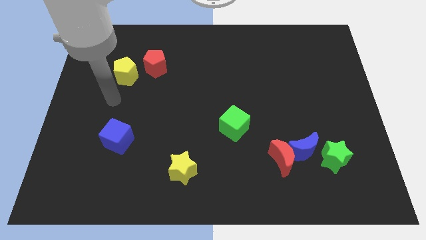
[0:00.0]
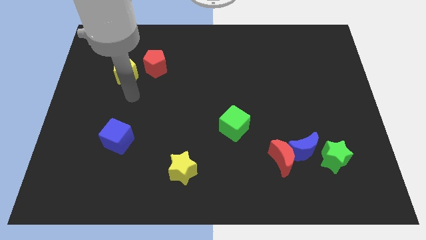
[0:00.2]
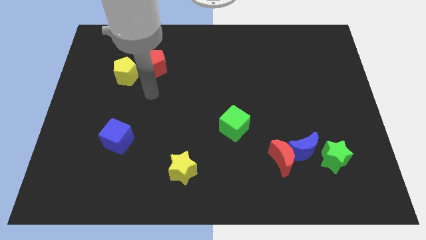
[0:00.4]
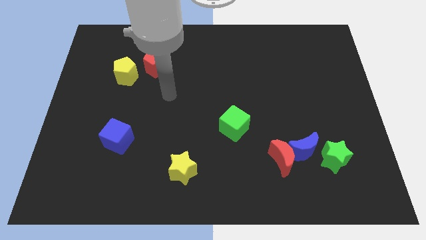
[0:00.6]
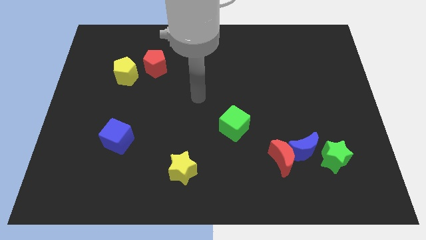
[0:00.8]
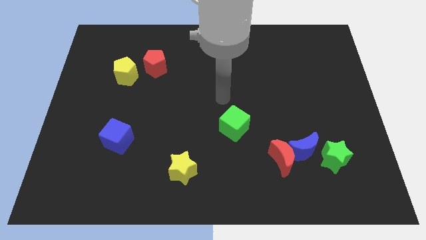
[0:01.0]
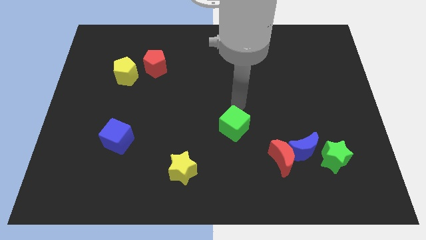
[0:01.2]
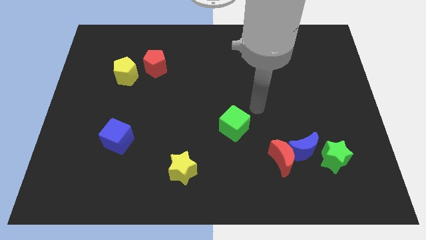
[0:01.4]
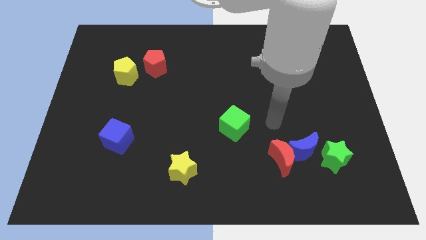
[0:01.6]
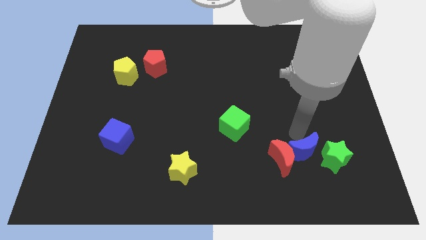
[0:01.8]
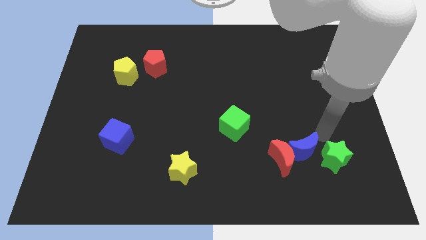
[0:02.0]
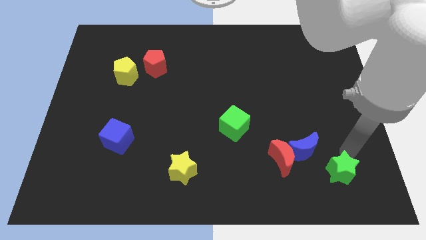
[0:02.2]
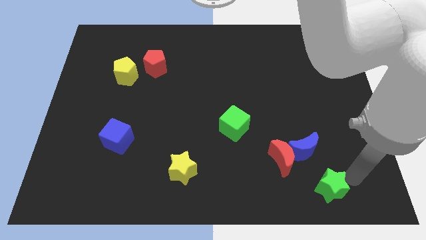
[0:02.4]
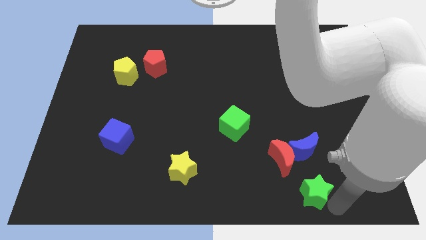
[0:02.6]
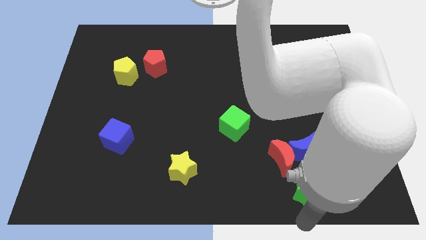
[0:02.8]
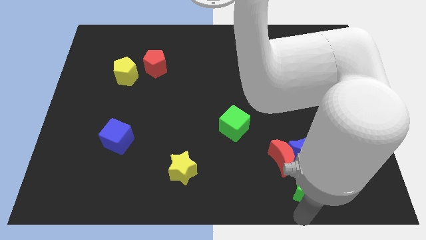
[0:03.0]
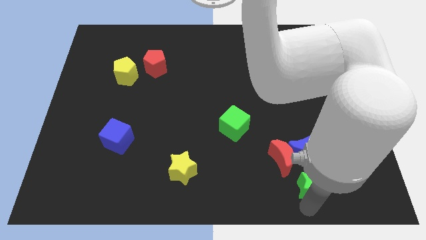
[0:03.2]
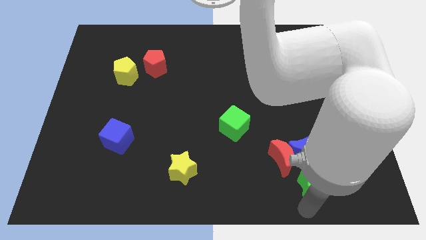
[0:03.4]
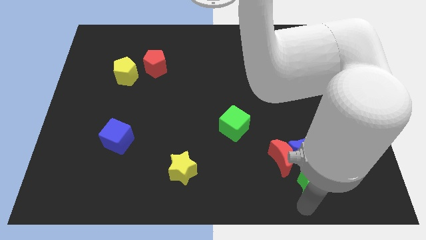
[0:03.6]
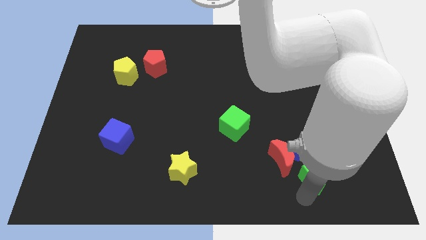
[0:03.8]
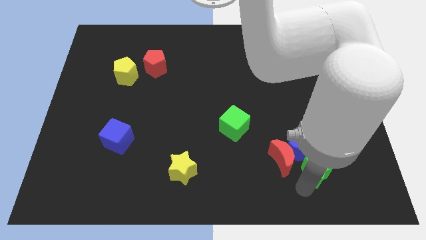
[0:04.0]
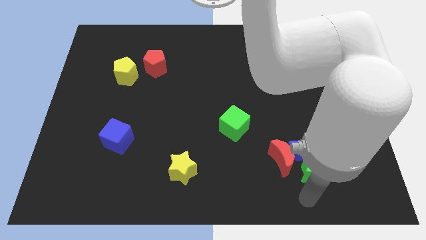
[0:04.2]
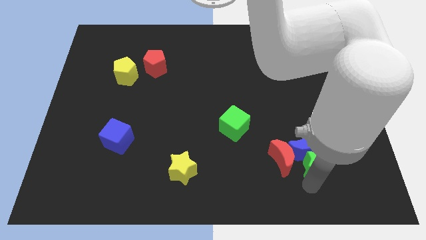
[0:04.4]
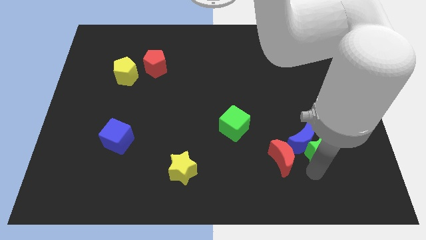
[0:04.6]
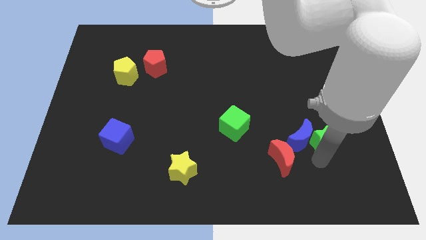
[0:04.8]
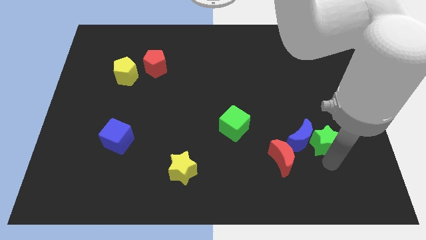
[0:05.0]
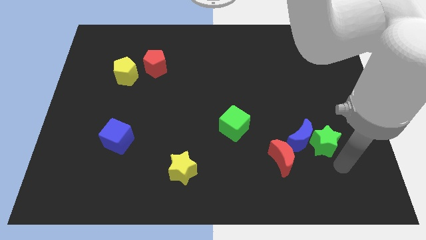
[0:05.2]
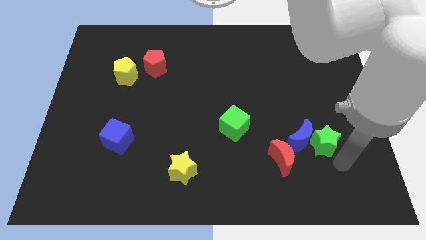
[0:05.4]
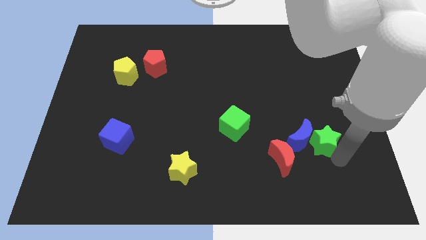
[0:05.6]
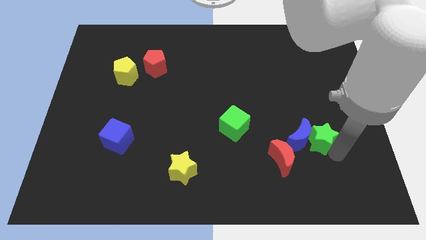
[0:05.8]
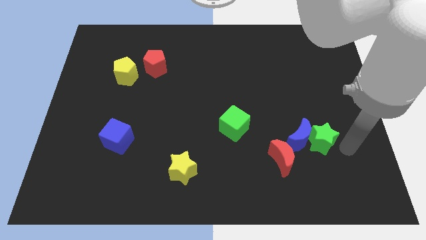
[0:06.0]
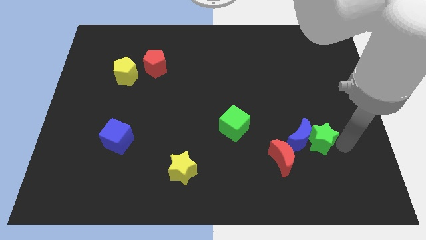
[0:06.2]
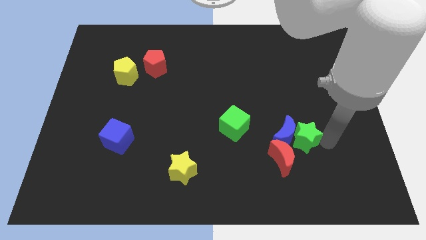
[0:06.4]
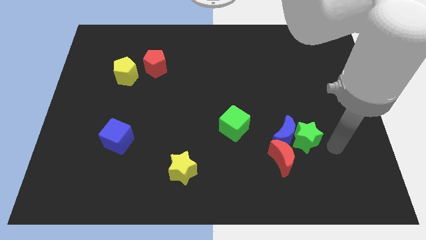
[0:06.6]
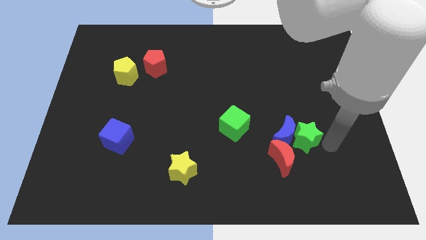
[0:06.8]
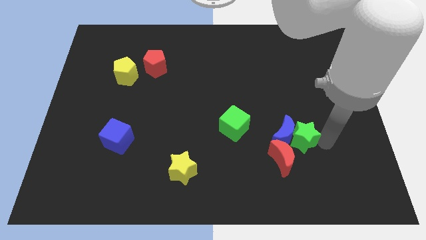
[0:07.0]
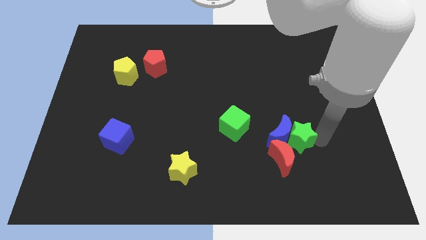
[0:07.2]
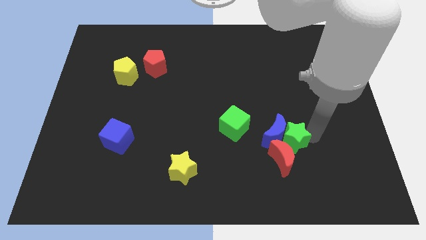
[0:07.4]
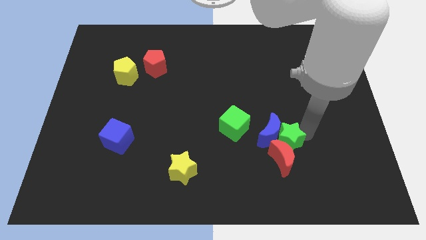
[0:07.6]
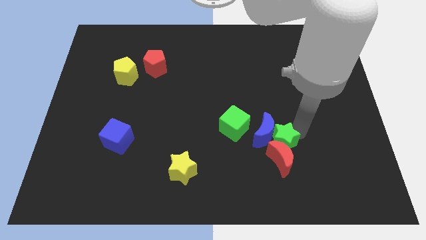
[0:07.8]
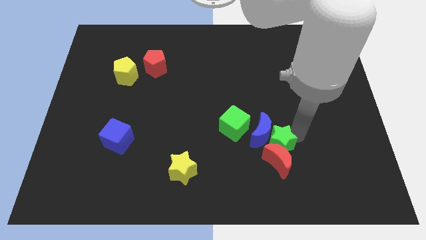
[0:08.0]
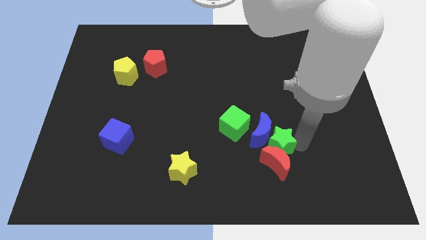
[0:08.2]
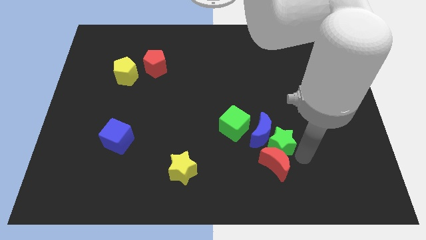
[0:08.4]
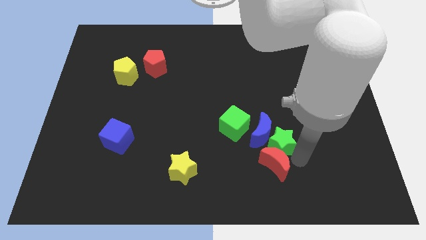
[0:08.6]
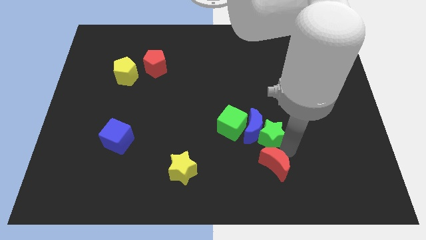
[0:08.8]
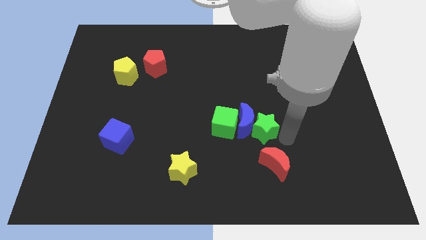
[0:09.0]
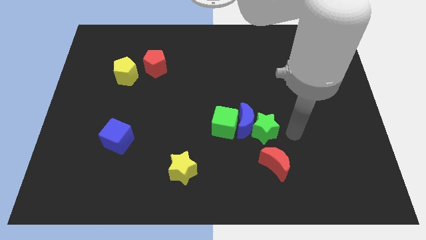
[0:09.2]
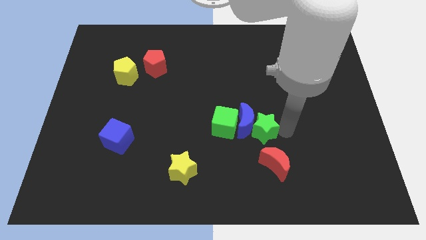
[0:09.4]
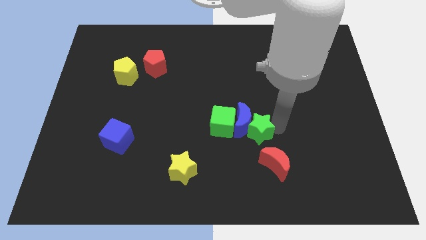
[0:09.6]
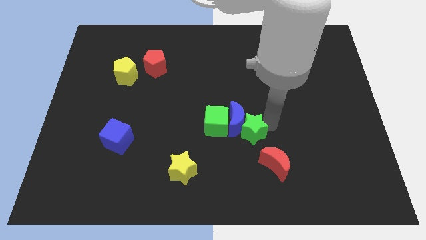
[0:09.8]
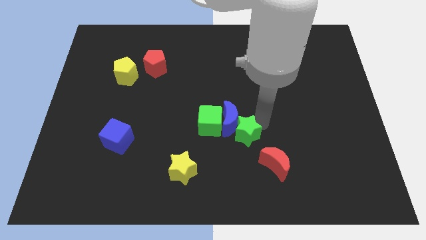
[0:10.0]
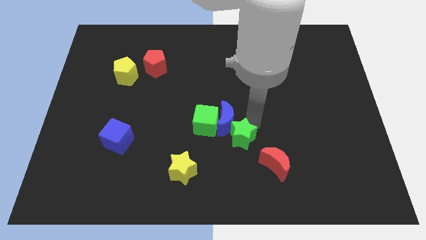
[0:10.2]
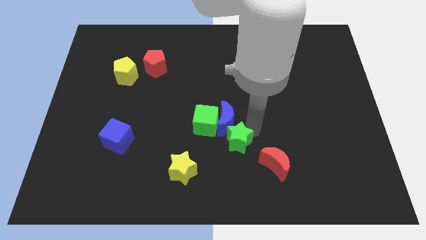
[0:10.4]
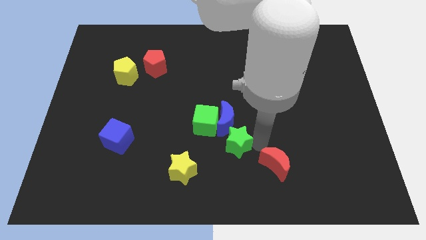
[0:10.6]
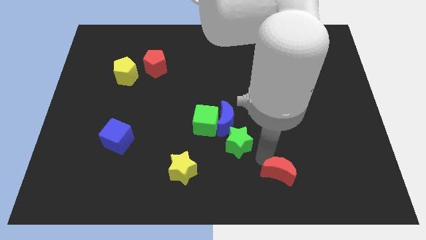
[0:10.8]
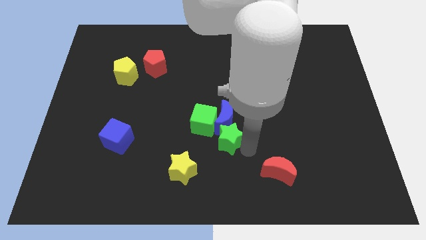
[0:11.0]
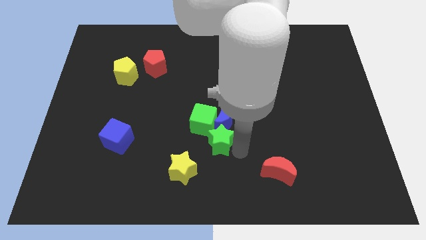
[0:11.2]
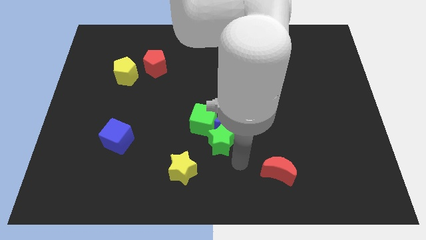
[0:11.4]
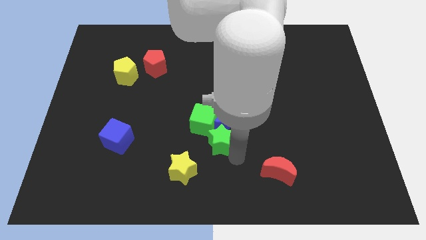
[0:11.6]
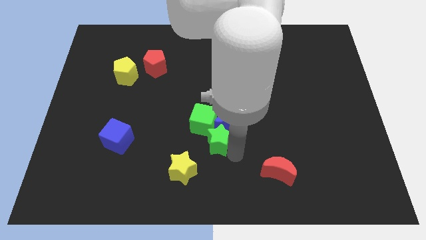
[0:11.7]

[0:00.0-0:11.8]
slide the green star towards the green cube

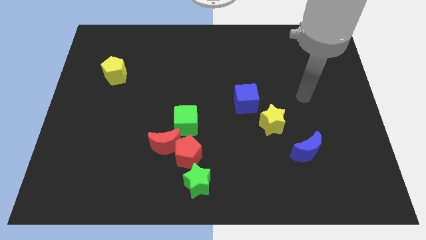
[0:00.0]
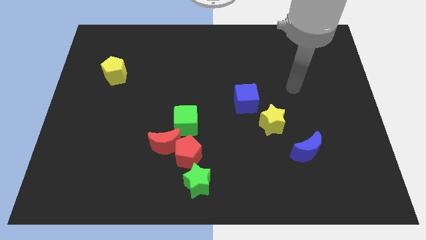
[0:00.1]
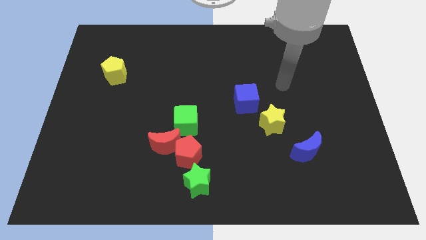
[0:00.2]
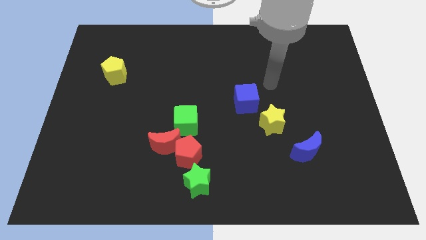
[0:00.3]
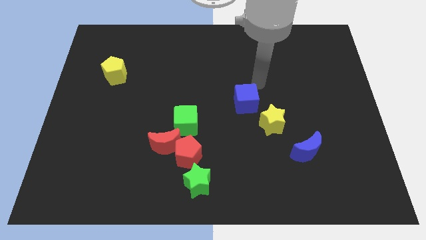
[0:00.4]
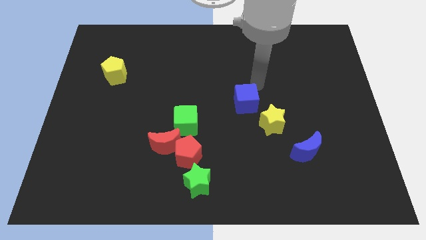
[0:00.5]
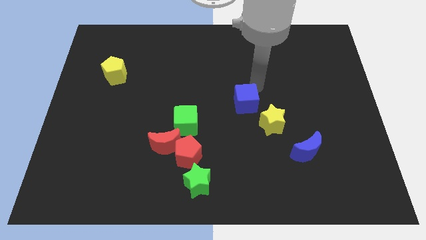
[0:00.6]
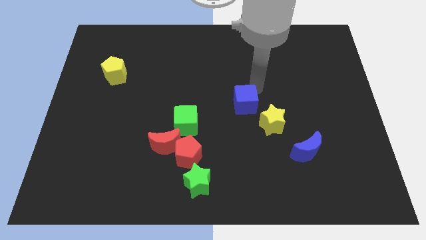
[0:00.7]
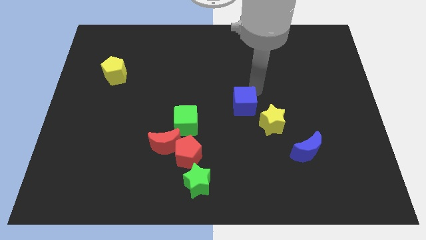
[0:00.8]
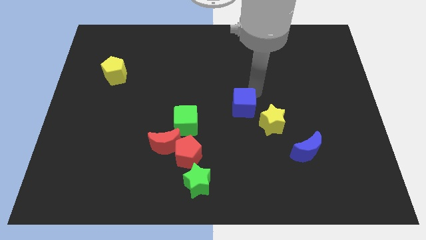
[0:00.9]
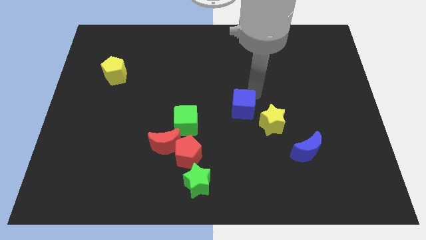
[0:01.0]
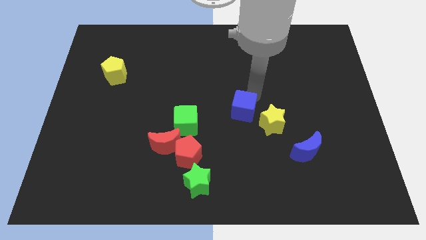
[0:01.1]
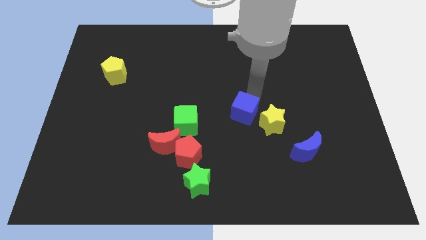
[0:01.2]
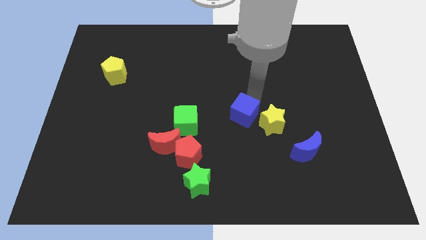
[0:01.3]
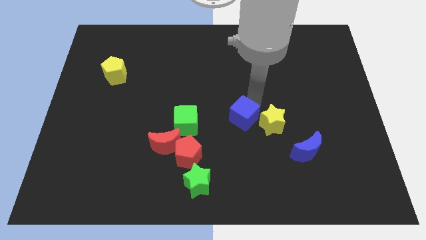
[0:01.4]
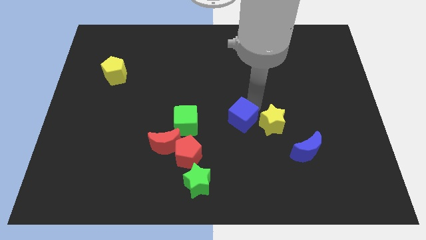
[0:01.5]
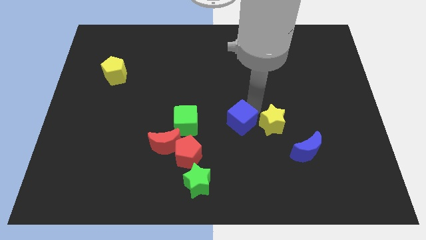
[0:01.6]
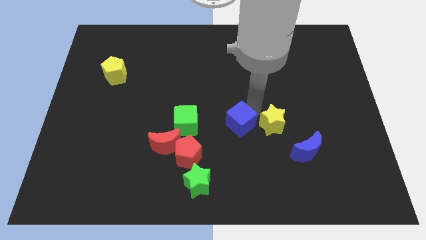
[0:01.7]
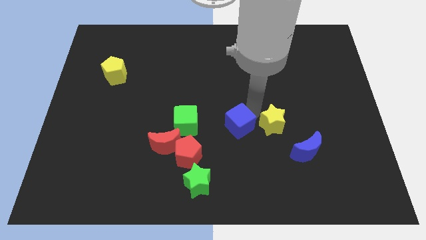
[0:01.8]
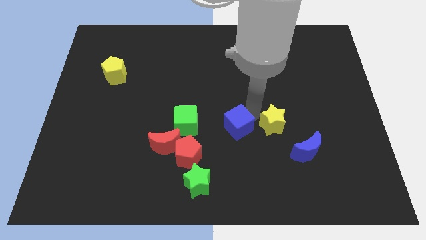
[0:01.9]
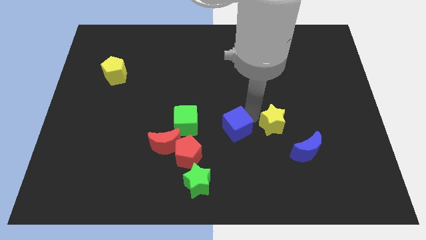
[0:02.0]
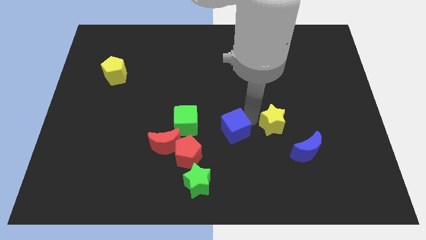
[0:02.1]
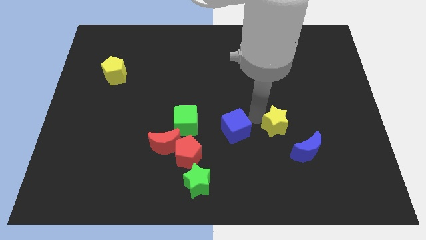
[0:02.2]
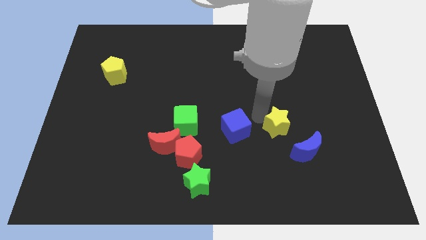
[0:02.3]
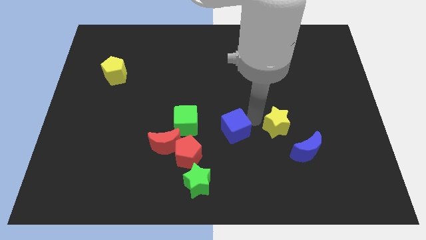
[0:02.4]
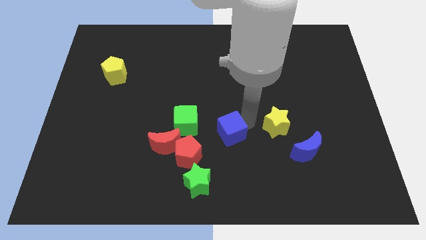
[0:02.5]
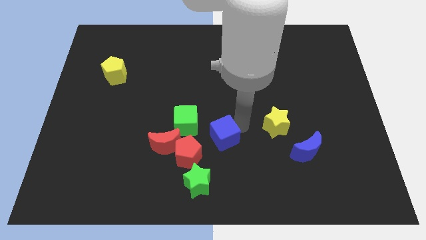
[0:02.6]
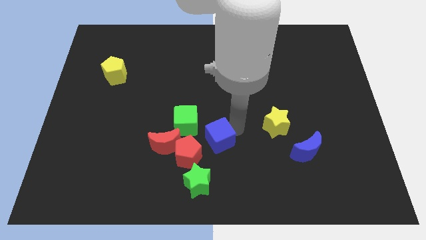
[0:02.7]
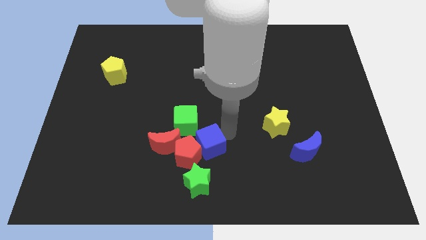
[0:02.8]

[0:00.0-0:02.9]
slide the blue cube close to the red pentagon
